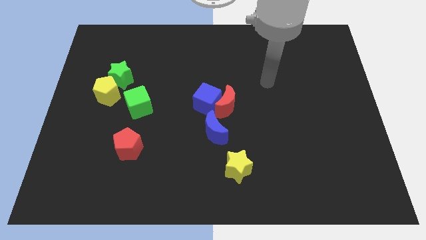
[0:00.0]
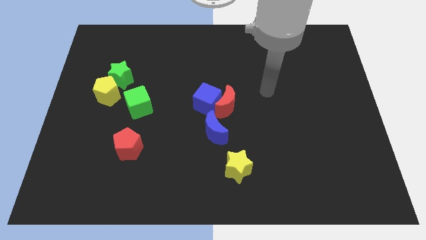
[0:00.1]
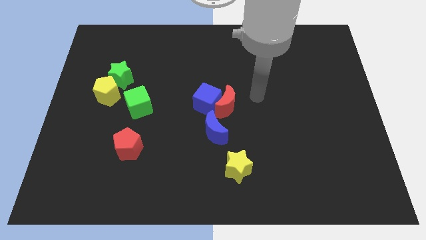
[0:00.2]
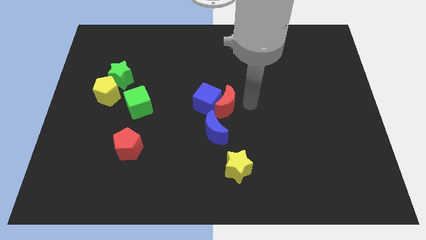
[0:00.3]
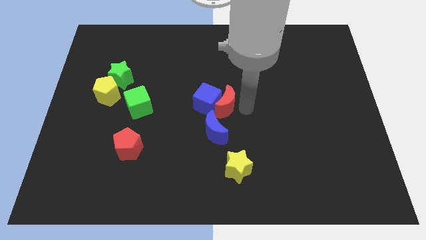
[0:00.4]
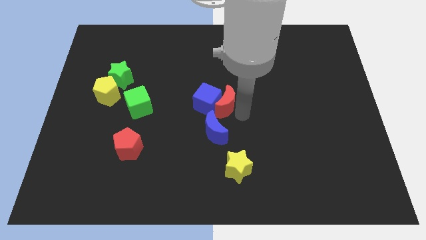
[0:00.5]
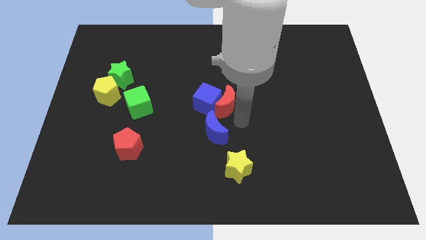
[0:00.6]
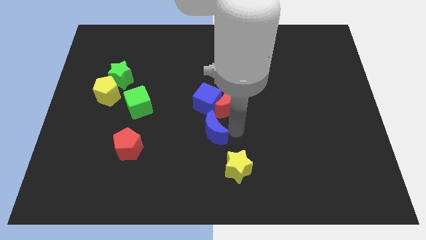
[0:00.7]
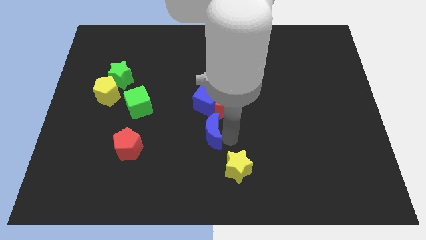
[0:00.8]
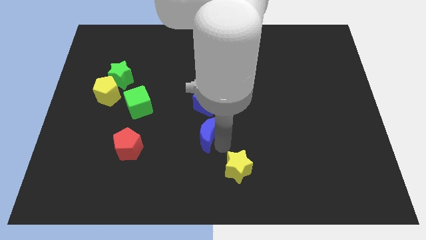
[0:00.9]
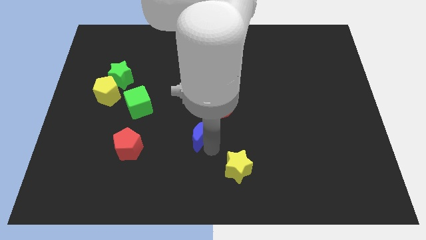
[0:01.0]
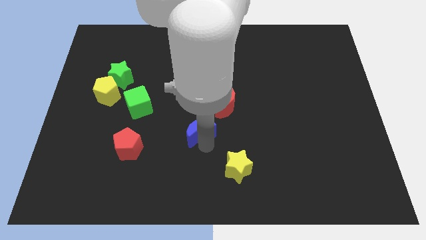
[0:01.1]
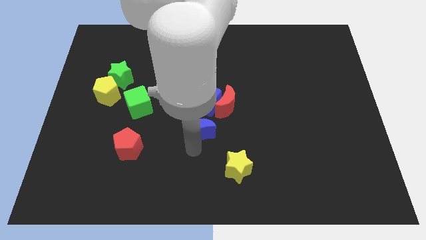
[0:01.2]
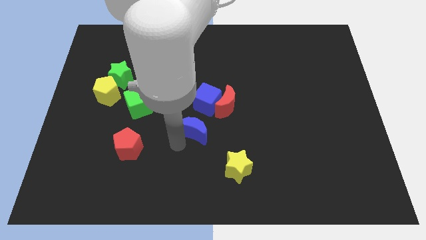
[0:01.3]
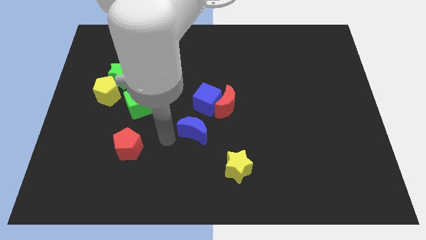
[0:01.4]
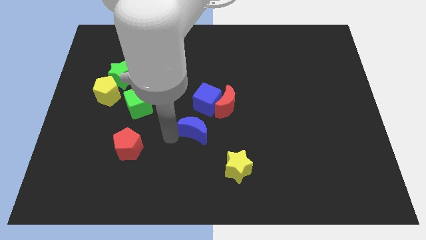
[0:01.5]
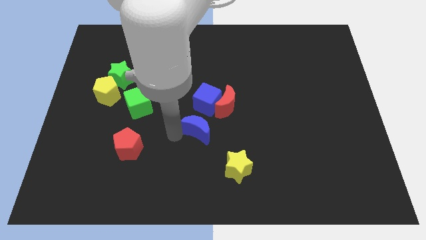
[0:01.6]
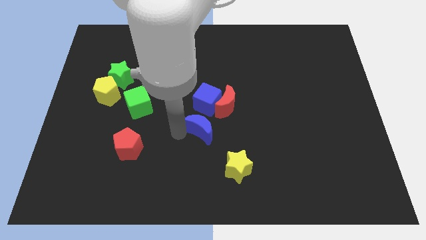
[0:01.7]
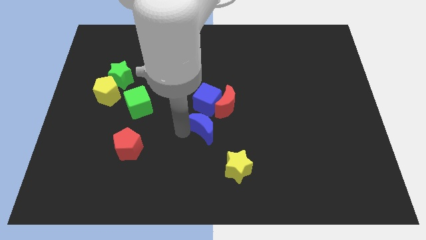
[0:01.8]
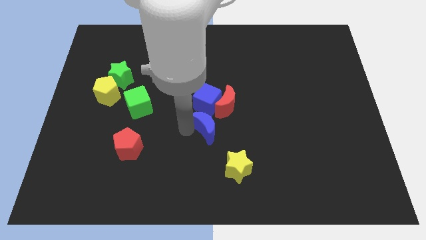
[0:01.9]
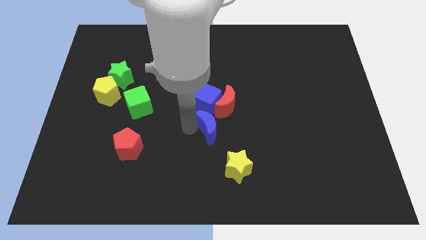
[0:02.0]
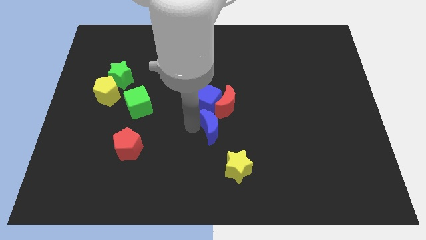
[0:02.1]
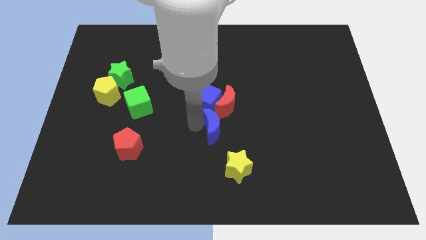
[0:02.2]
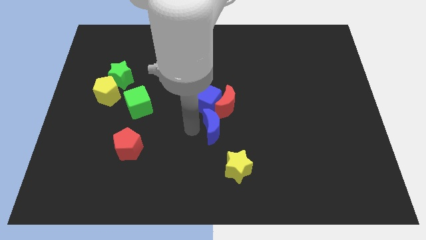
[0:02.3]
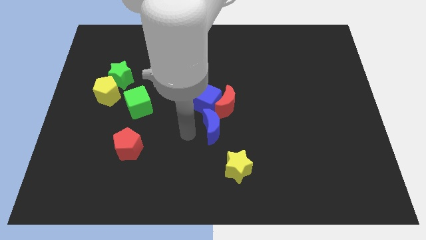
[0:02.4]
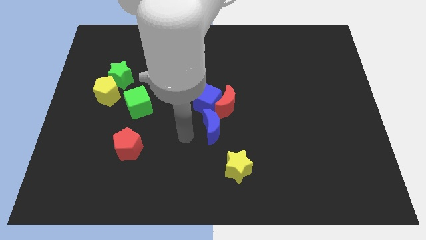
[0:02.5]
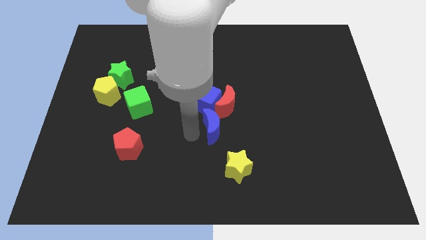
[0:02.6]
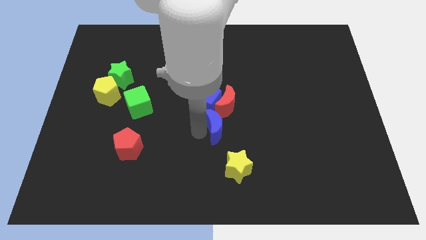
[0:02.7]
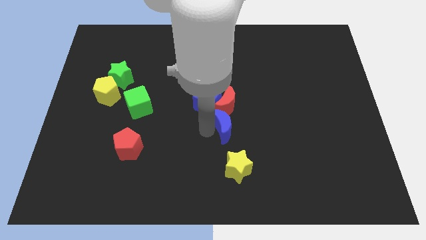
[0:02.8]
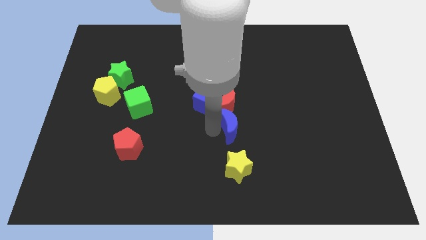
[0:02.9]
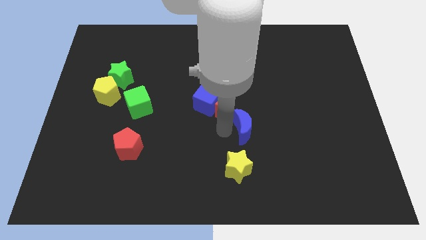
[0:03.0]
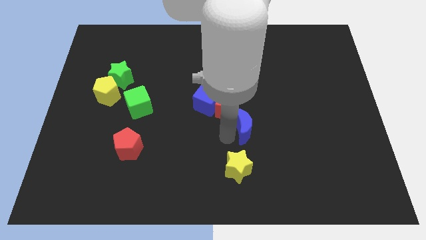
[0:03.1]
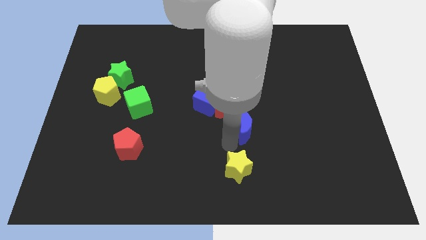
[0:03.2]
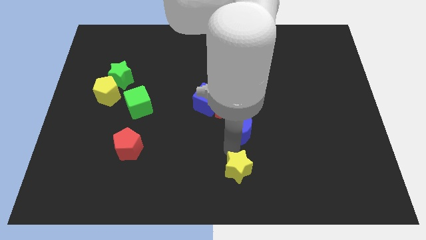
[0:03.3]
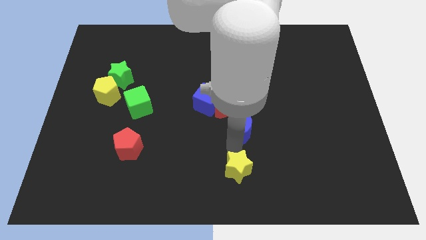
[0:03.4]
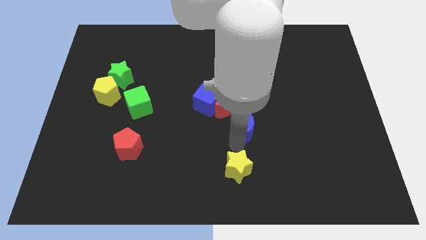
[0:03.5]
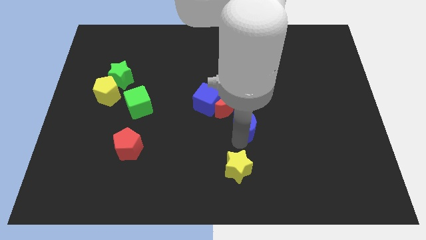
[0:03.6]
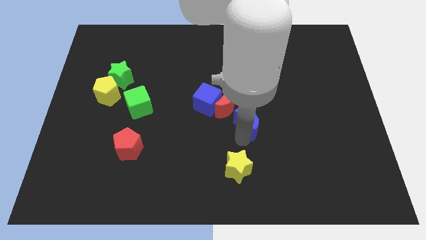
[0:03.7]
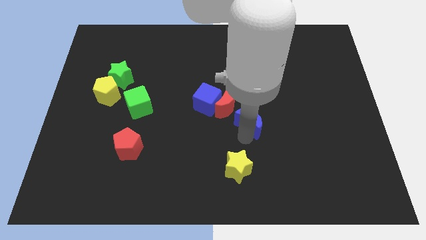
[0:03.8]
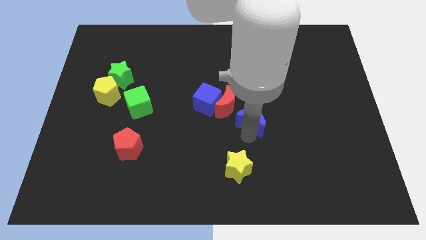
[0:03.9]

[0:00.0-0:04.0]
move the blue moon up and then to the right a little

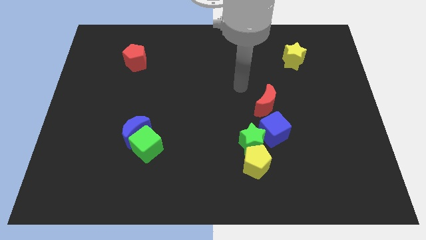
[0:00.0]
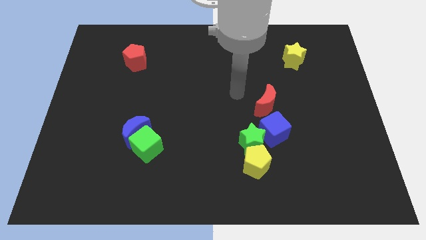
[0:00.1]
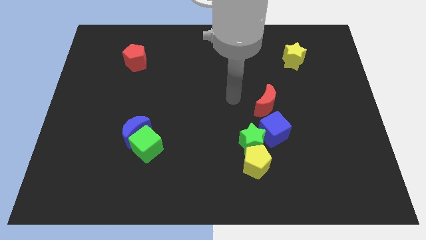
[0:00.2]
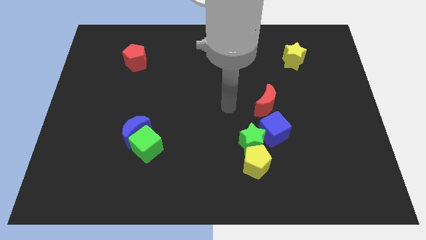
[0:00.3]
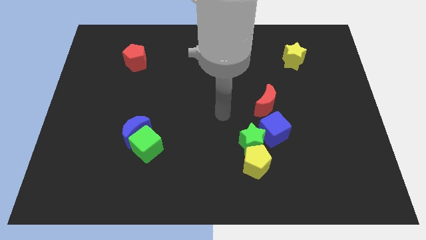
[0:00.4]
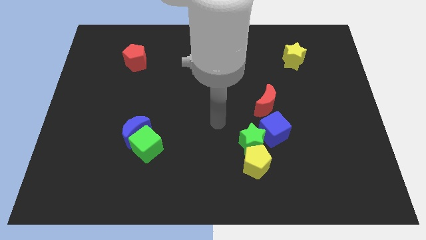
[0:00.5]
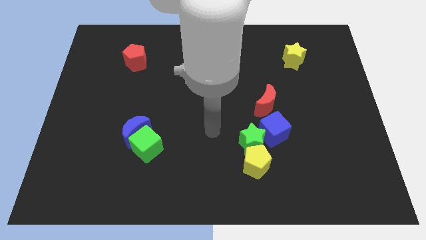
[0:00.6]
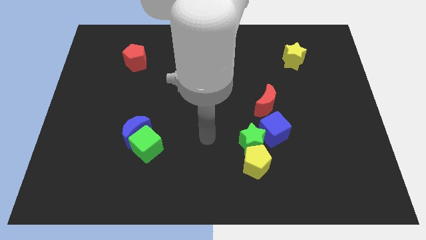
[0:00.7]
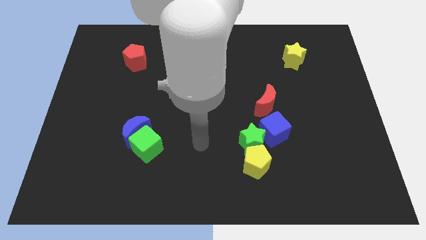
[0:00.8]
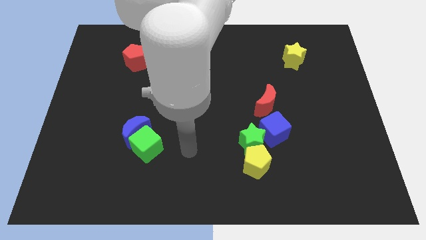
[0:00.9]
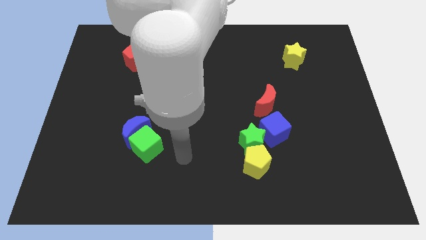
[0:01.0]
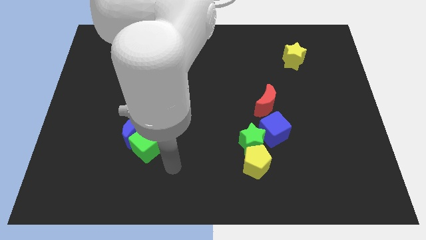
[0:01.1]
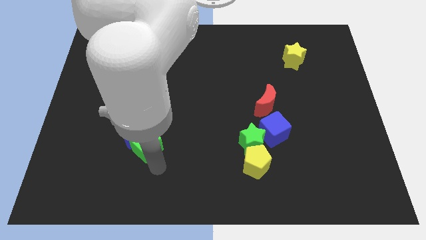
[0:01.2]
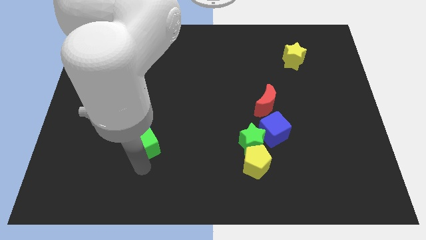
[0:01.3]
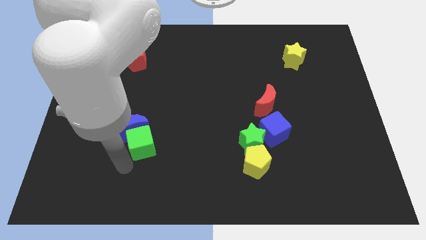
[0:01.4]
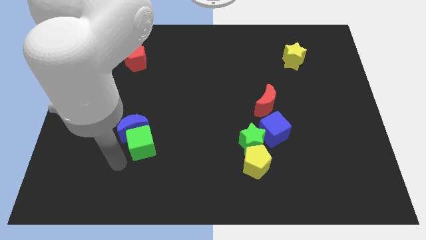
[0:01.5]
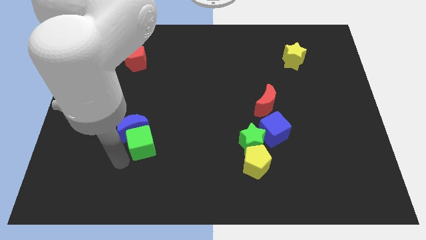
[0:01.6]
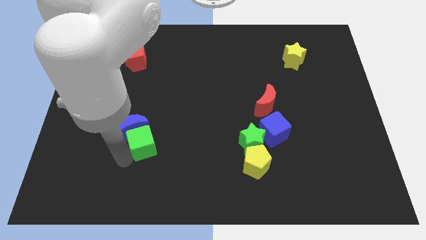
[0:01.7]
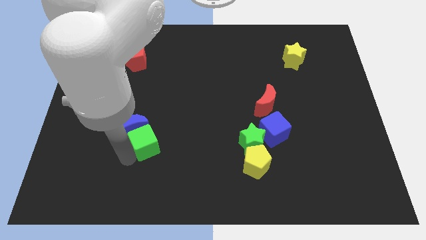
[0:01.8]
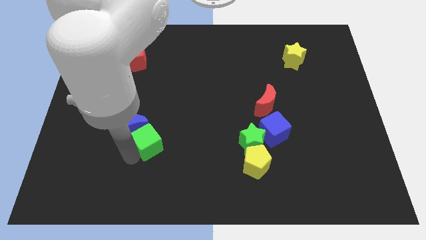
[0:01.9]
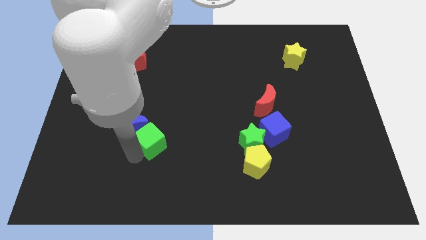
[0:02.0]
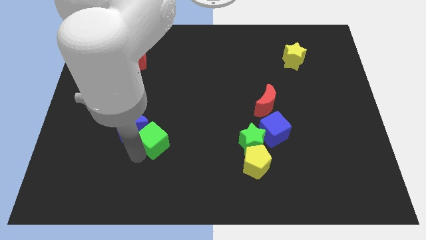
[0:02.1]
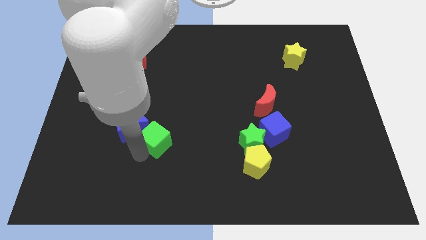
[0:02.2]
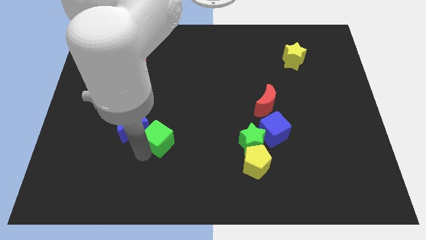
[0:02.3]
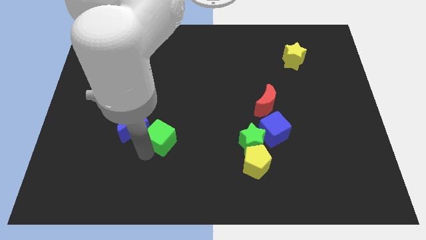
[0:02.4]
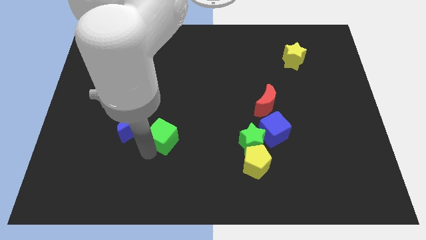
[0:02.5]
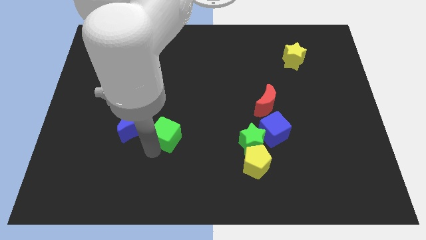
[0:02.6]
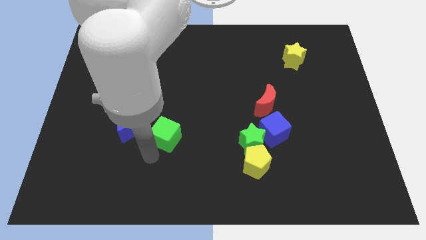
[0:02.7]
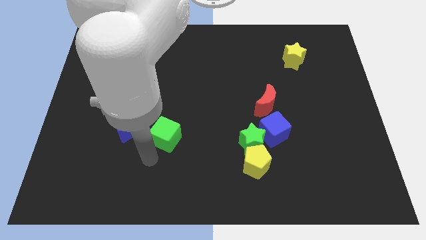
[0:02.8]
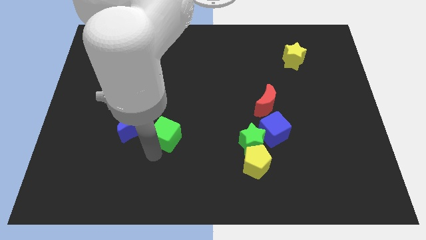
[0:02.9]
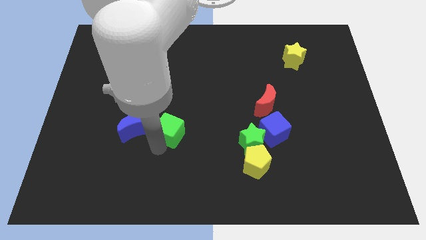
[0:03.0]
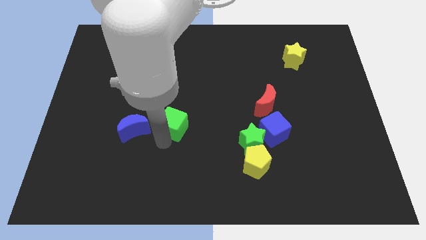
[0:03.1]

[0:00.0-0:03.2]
move the green cube slightly up and right diagonally

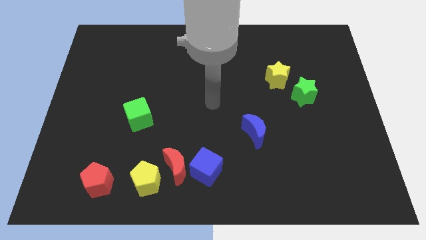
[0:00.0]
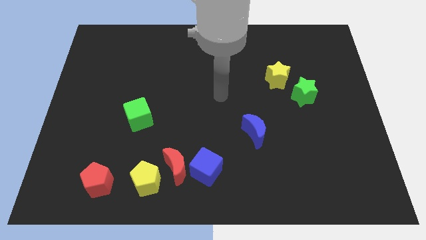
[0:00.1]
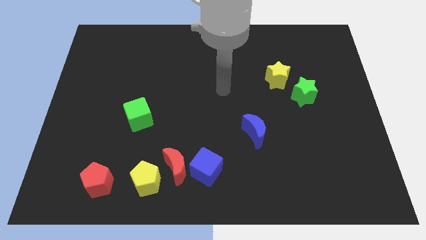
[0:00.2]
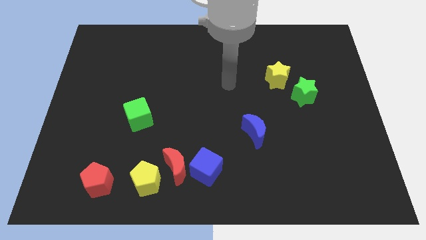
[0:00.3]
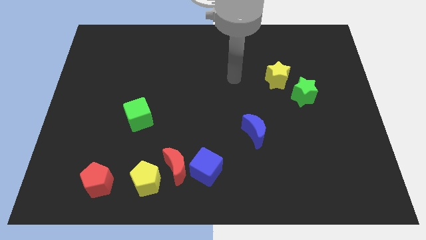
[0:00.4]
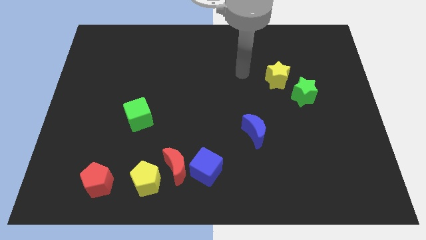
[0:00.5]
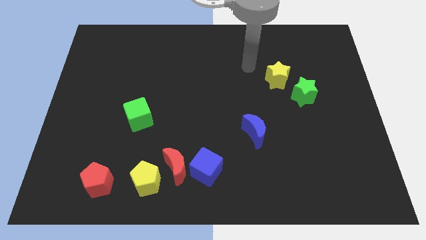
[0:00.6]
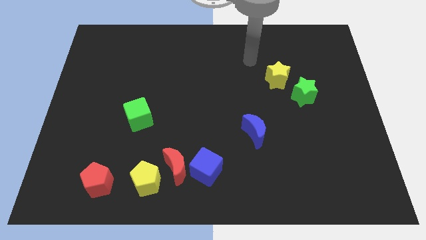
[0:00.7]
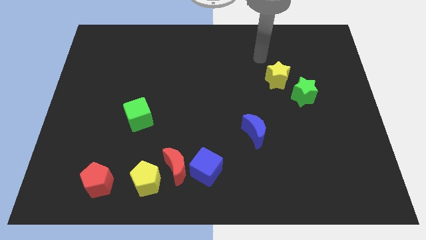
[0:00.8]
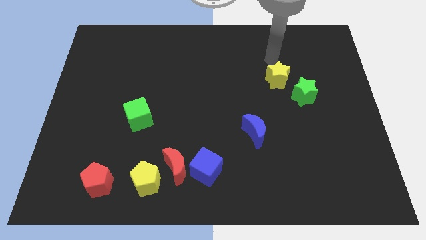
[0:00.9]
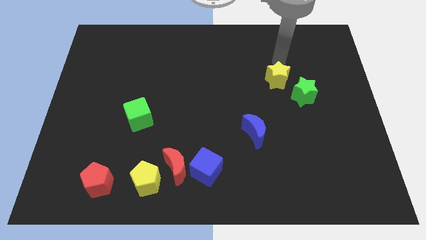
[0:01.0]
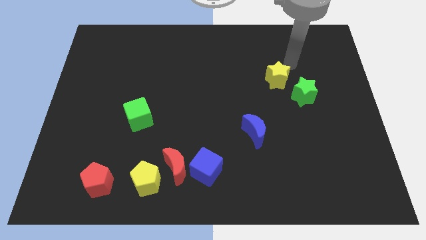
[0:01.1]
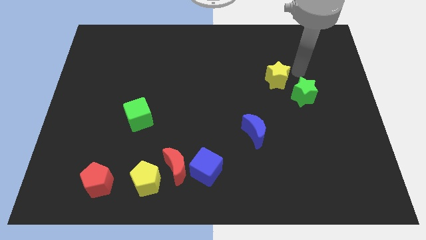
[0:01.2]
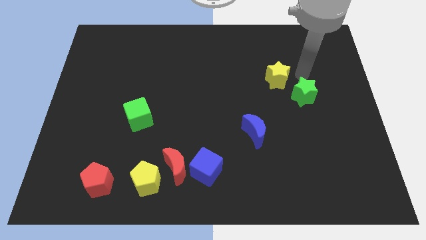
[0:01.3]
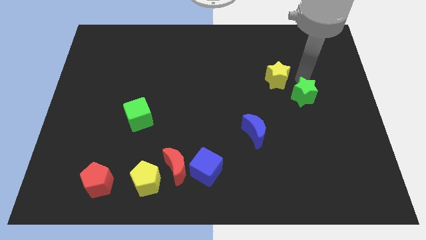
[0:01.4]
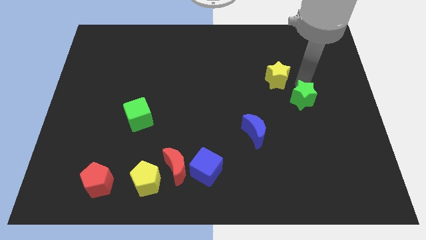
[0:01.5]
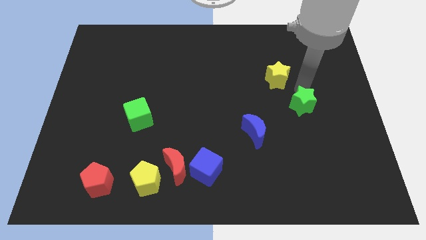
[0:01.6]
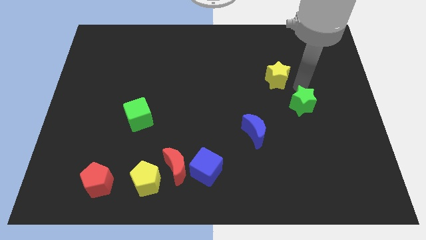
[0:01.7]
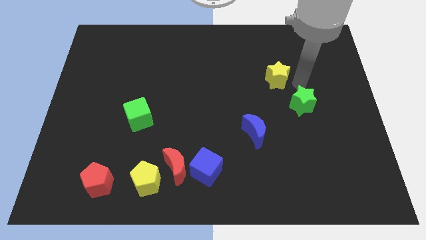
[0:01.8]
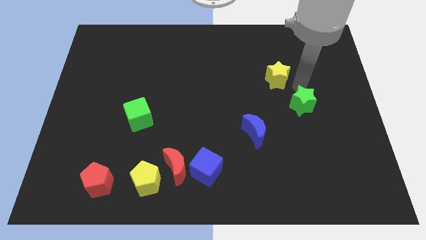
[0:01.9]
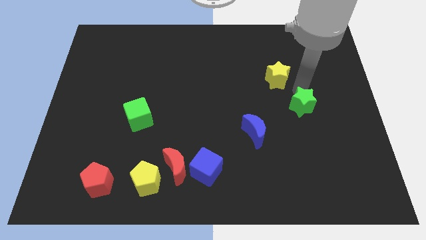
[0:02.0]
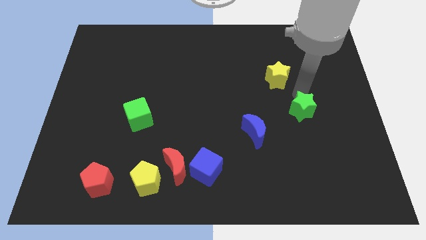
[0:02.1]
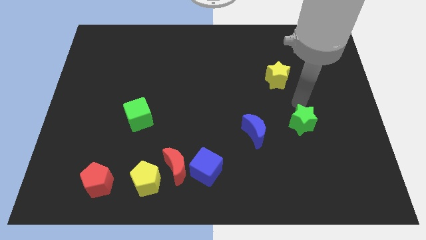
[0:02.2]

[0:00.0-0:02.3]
slide the green star downwards a little
